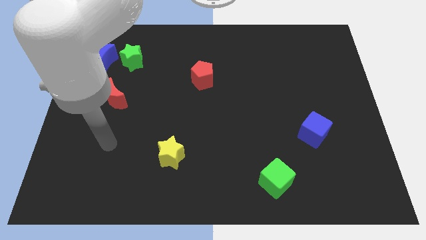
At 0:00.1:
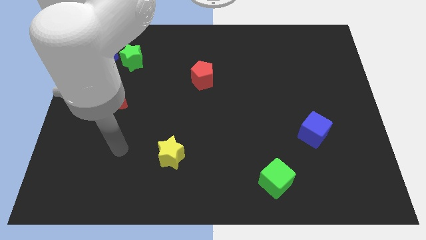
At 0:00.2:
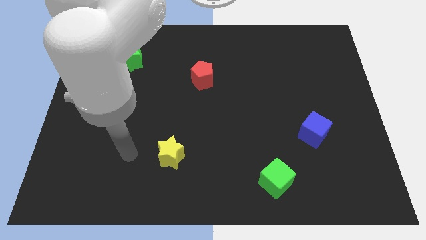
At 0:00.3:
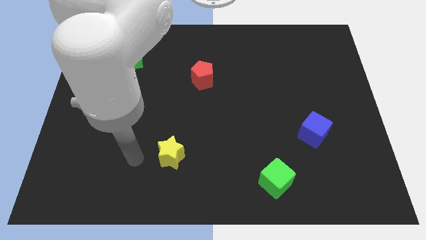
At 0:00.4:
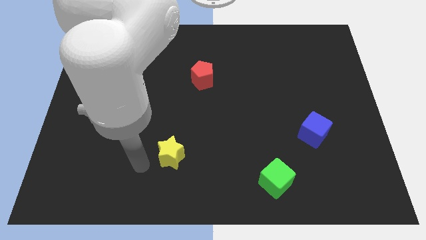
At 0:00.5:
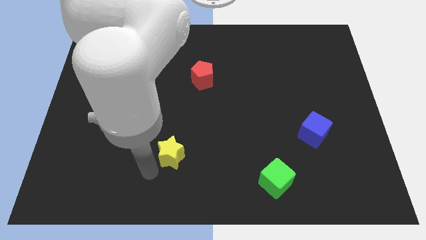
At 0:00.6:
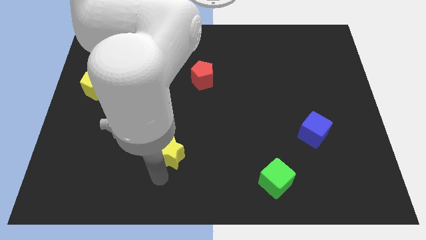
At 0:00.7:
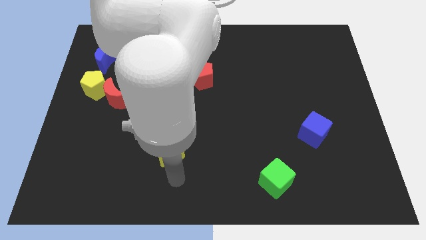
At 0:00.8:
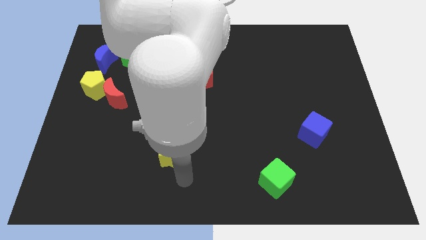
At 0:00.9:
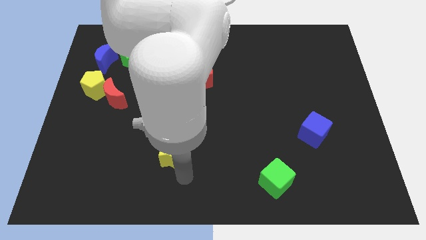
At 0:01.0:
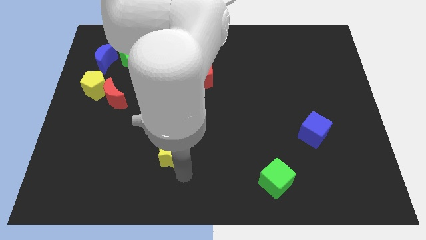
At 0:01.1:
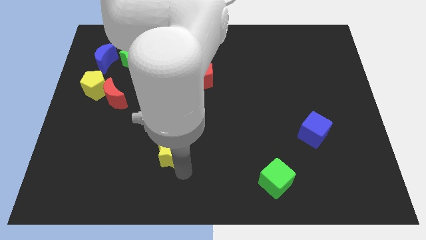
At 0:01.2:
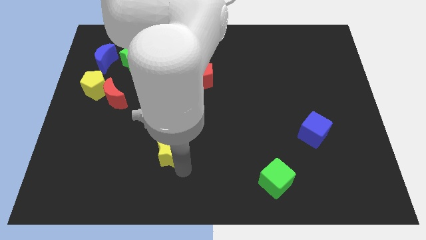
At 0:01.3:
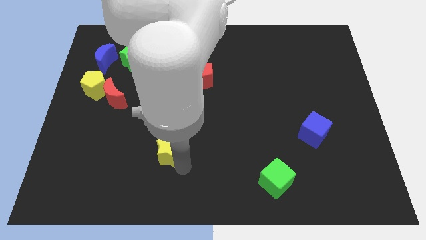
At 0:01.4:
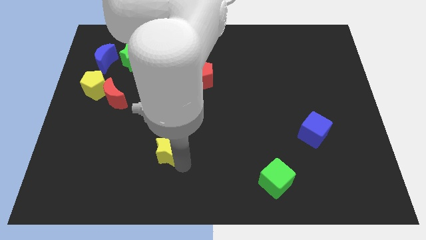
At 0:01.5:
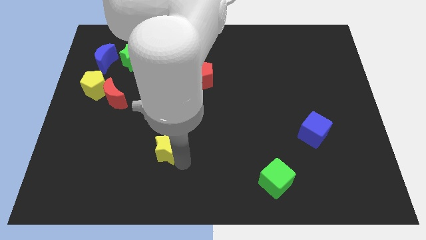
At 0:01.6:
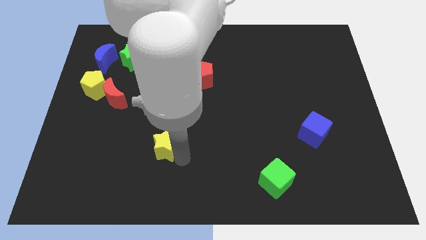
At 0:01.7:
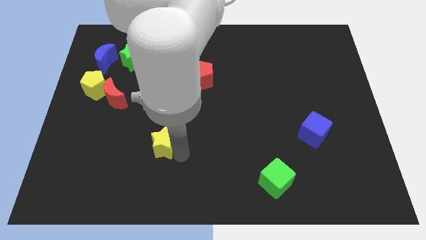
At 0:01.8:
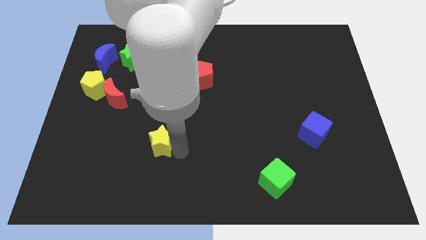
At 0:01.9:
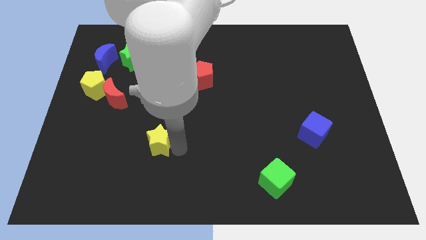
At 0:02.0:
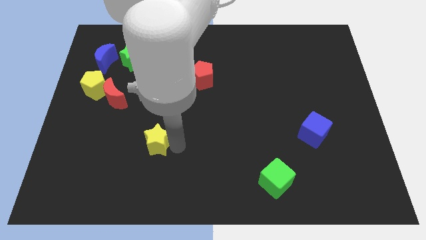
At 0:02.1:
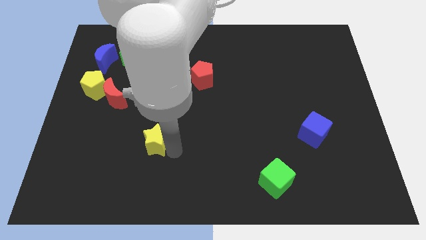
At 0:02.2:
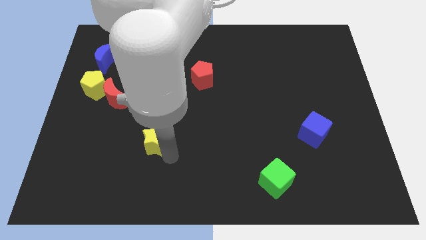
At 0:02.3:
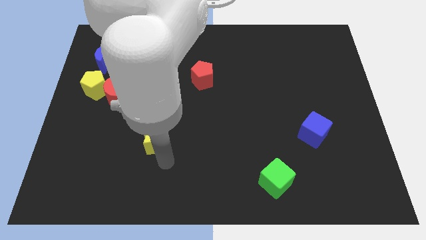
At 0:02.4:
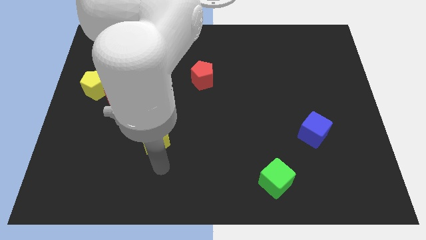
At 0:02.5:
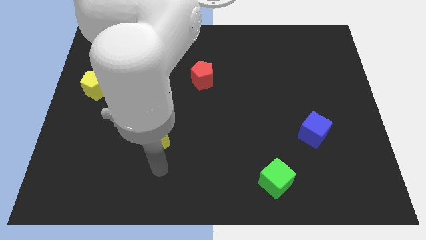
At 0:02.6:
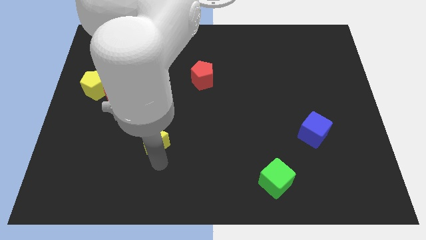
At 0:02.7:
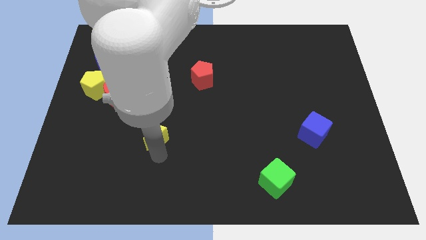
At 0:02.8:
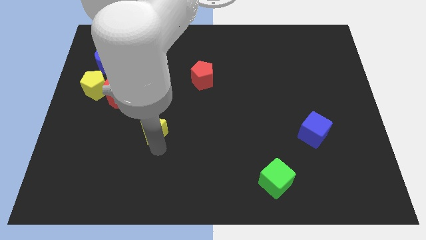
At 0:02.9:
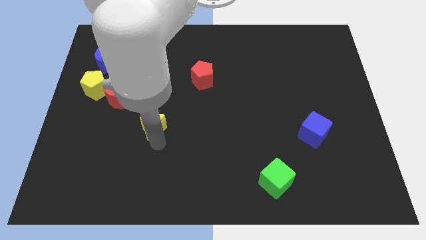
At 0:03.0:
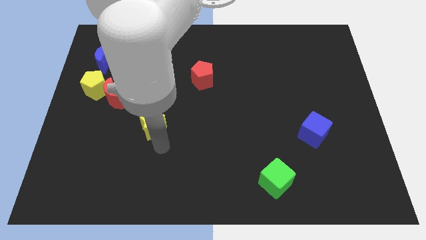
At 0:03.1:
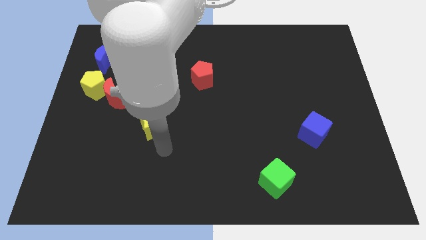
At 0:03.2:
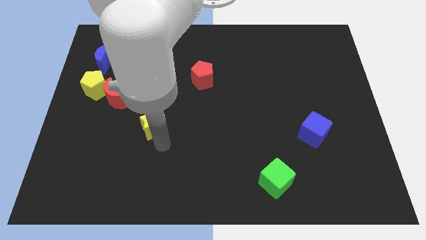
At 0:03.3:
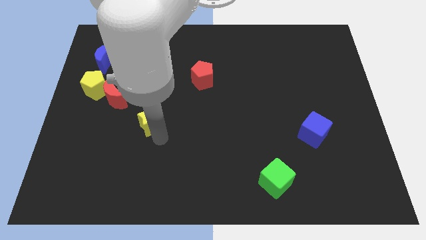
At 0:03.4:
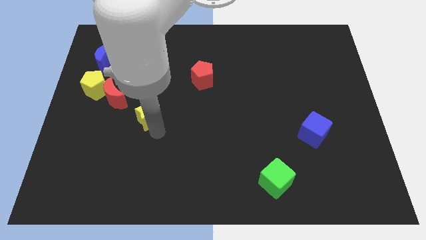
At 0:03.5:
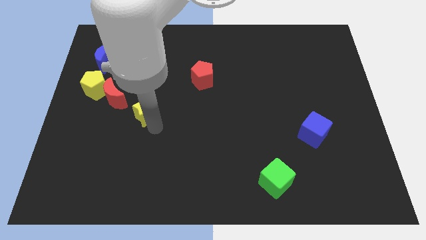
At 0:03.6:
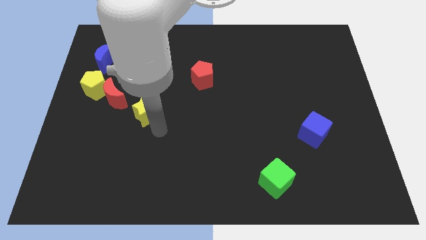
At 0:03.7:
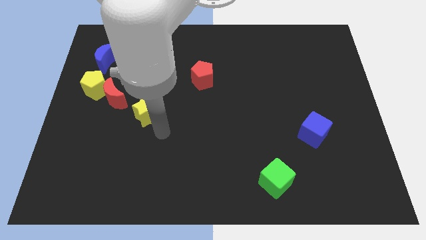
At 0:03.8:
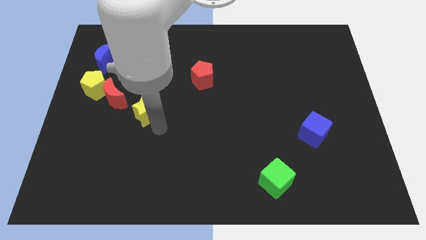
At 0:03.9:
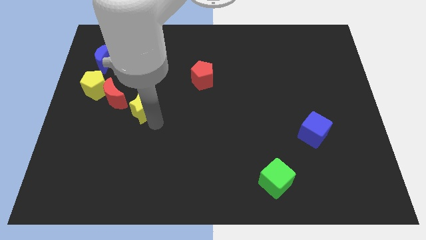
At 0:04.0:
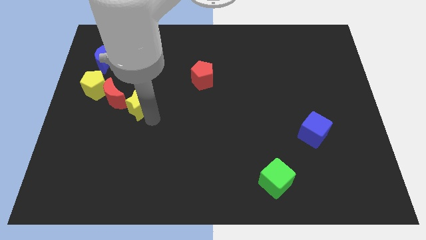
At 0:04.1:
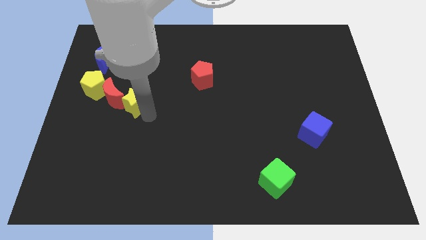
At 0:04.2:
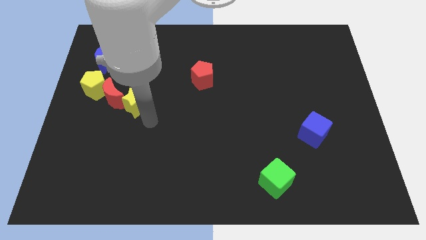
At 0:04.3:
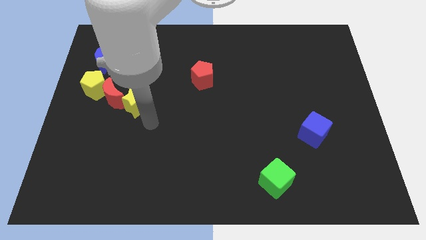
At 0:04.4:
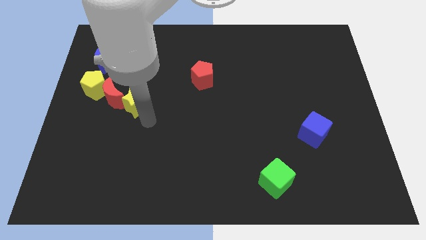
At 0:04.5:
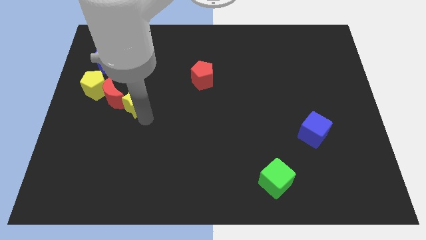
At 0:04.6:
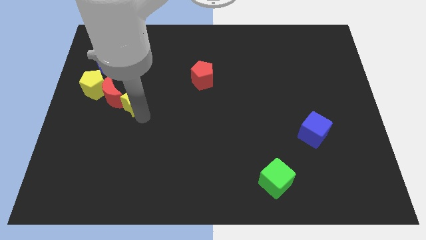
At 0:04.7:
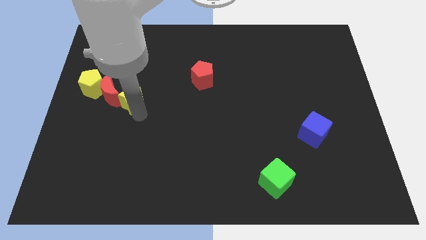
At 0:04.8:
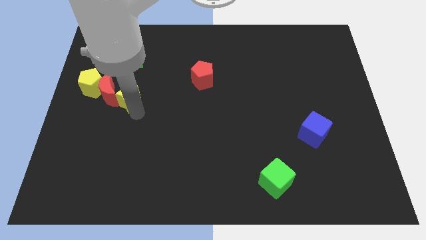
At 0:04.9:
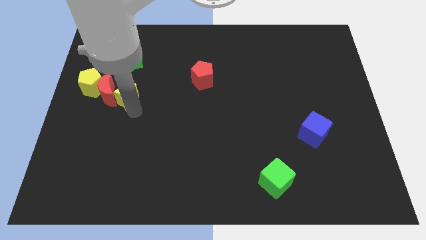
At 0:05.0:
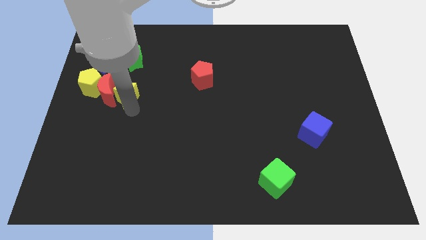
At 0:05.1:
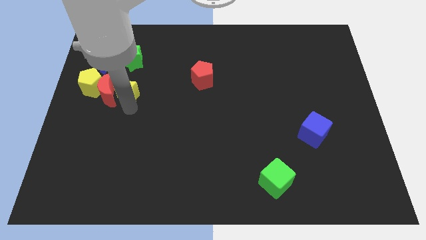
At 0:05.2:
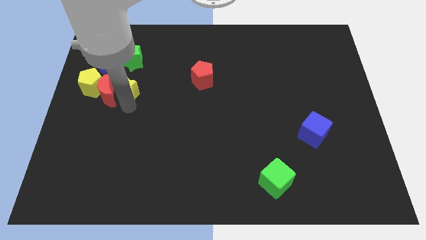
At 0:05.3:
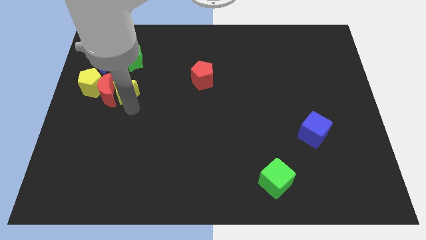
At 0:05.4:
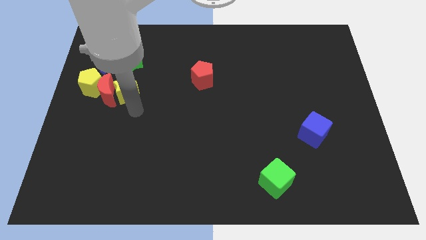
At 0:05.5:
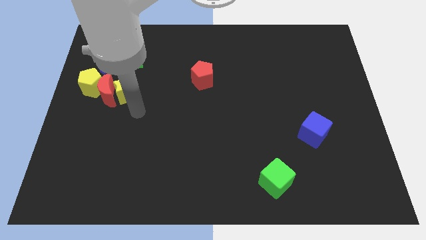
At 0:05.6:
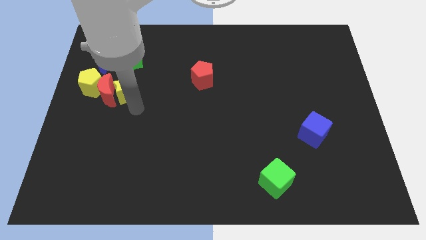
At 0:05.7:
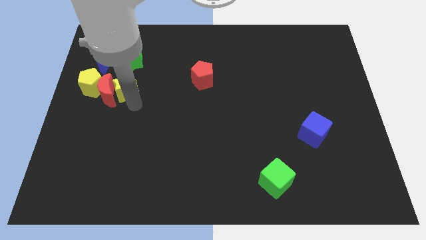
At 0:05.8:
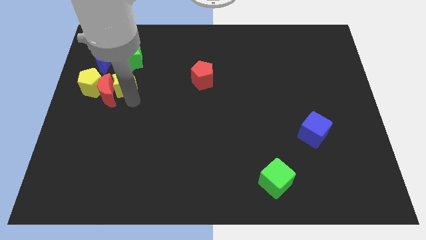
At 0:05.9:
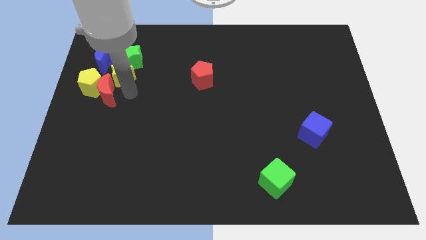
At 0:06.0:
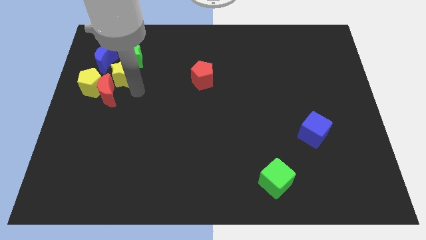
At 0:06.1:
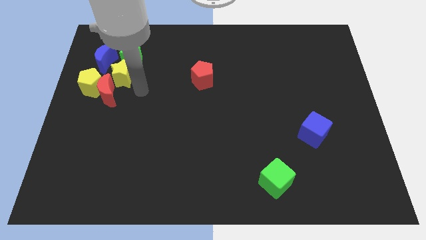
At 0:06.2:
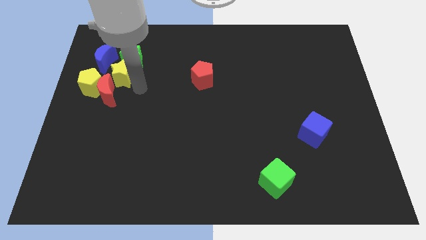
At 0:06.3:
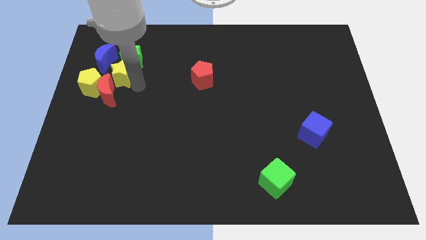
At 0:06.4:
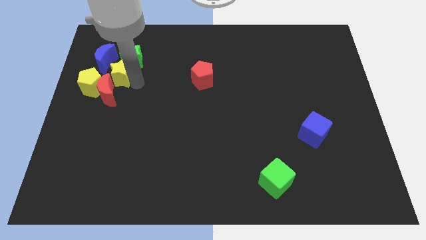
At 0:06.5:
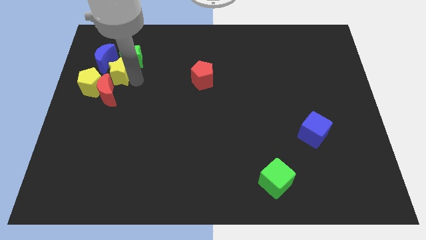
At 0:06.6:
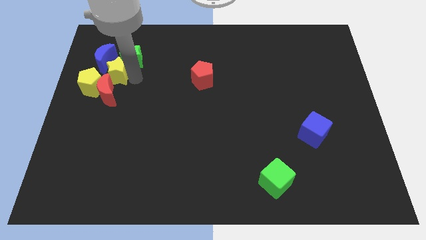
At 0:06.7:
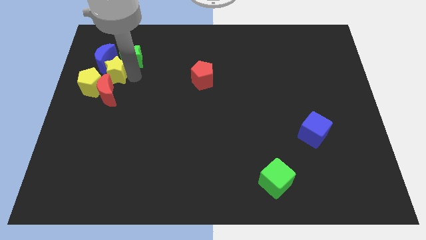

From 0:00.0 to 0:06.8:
push the yellow star close to the blue moon

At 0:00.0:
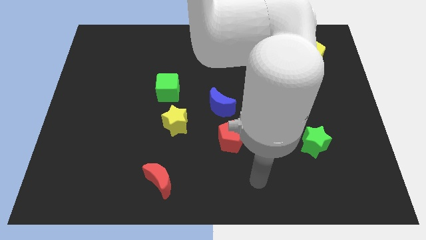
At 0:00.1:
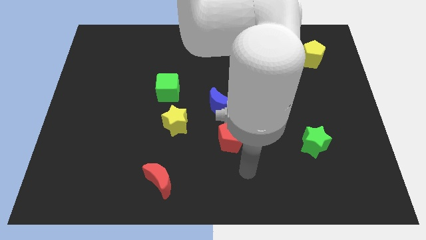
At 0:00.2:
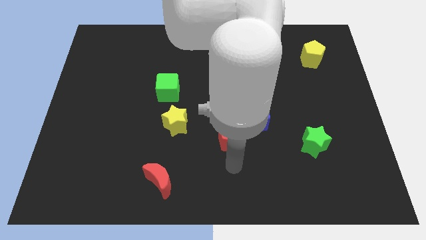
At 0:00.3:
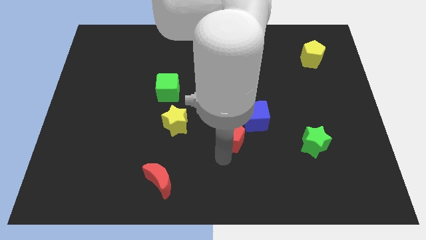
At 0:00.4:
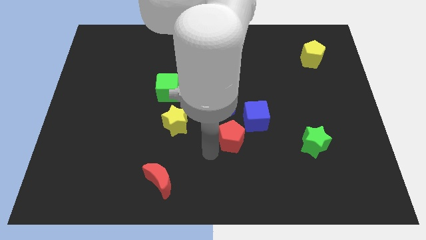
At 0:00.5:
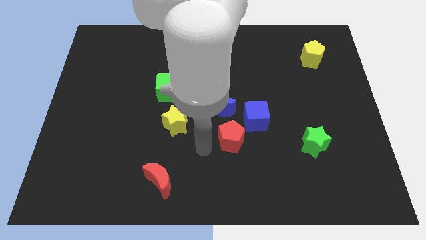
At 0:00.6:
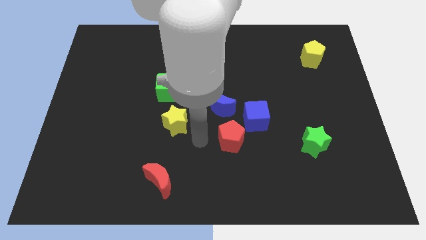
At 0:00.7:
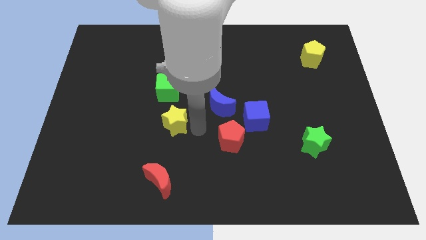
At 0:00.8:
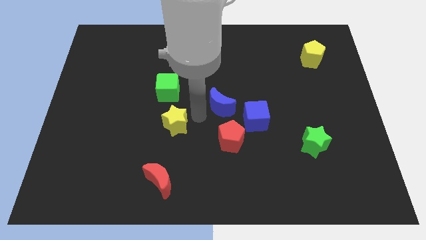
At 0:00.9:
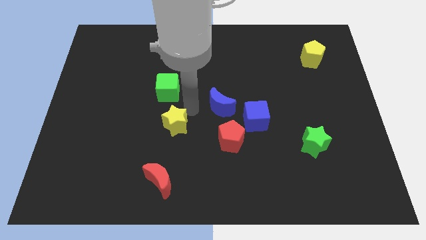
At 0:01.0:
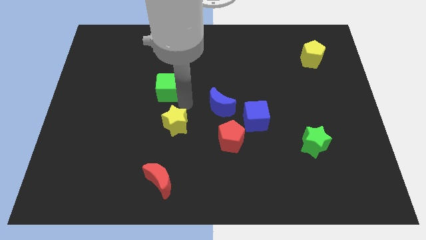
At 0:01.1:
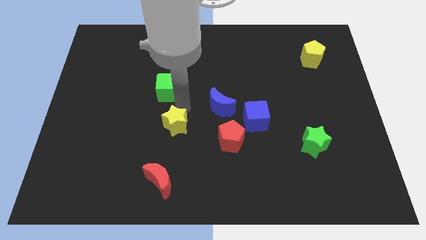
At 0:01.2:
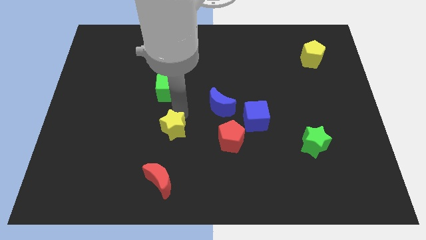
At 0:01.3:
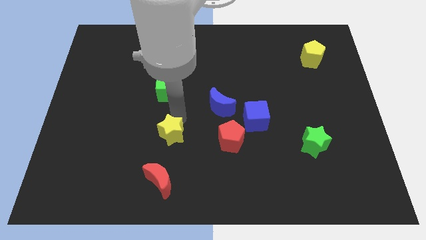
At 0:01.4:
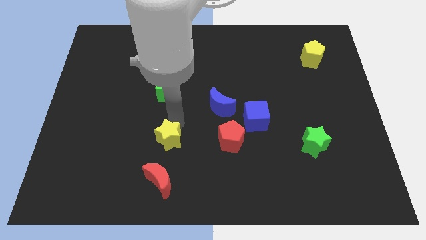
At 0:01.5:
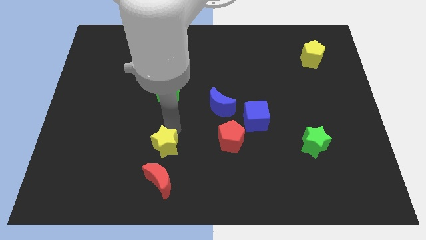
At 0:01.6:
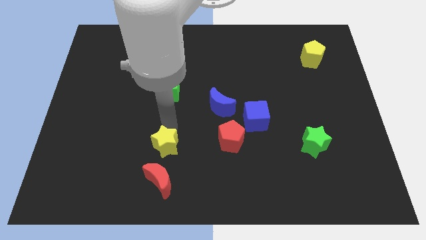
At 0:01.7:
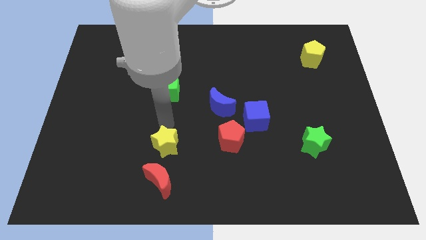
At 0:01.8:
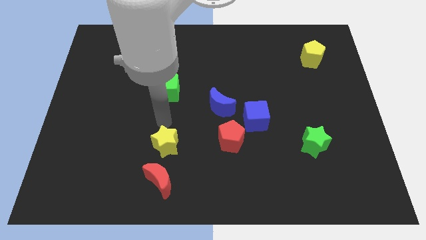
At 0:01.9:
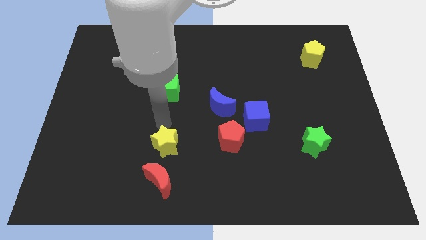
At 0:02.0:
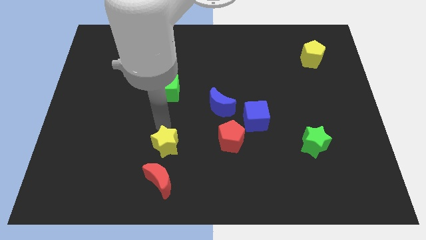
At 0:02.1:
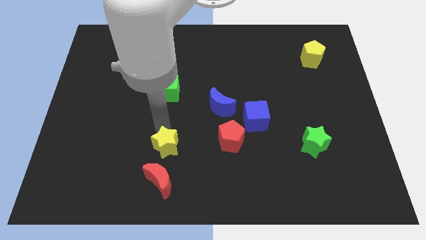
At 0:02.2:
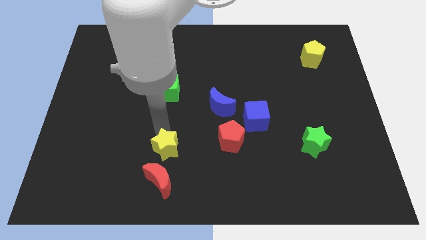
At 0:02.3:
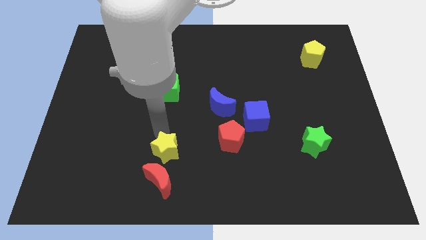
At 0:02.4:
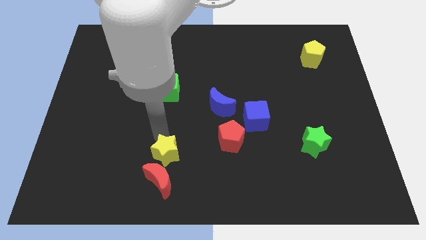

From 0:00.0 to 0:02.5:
push the yellow star towards the red moon
